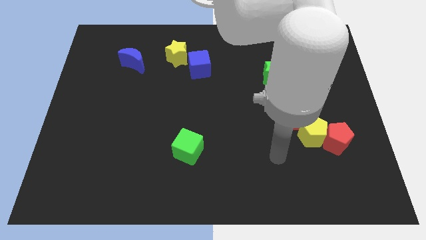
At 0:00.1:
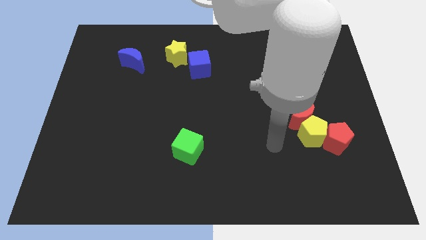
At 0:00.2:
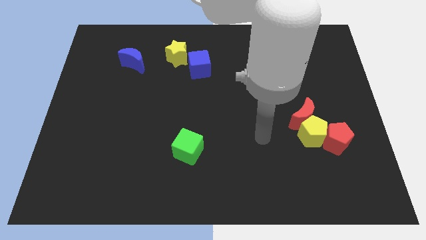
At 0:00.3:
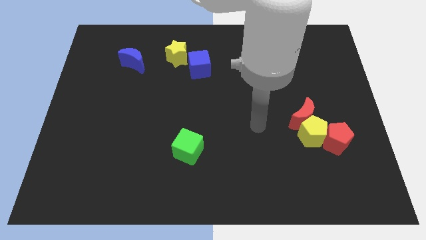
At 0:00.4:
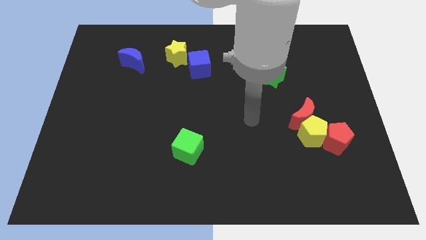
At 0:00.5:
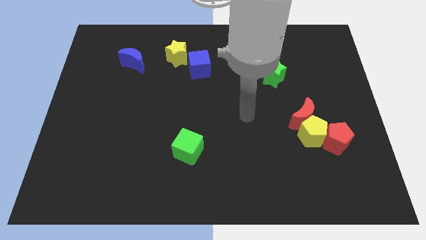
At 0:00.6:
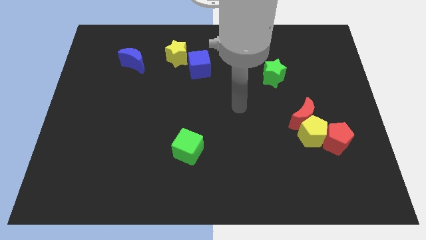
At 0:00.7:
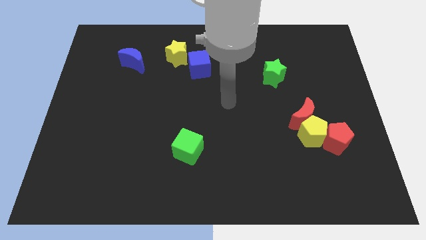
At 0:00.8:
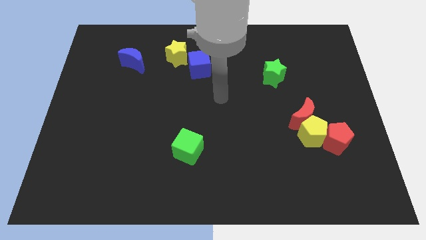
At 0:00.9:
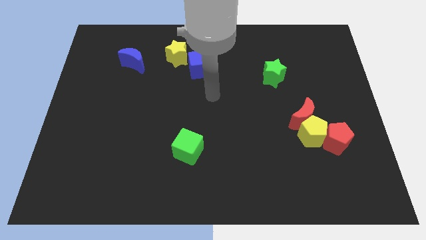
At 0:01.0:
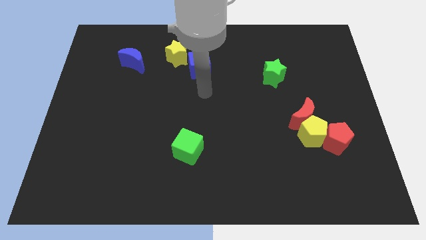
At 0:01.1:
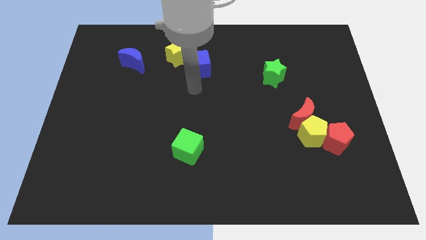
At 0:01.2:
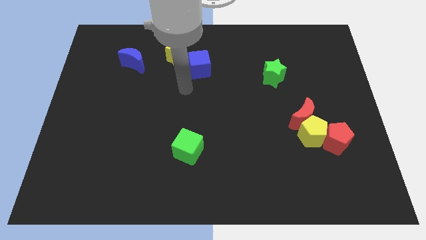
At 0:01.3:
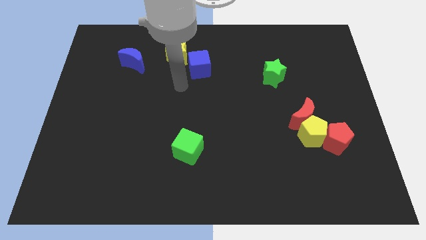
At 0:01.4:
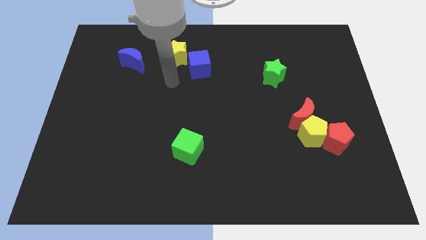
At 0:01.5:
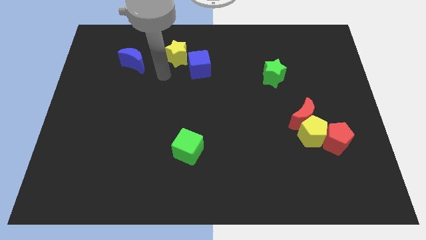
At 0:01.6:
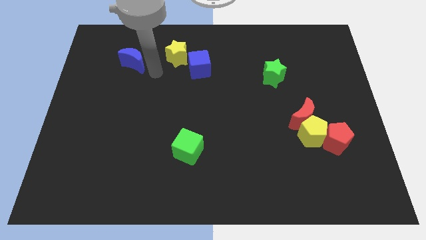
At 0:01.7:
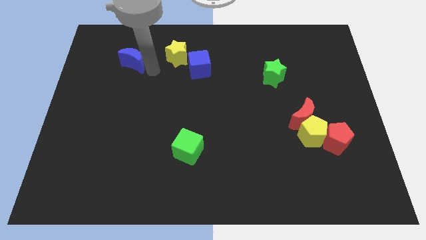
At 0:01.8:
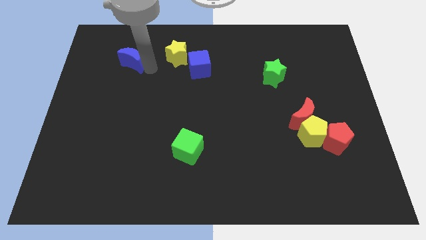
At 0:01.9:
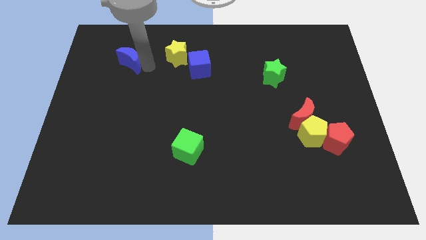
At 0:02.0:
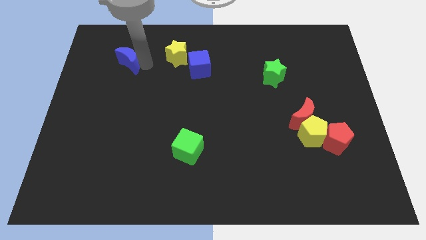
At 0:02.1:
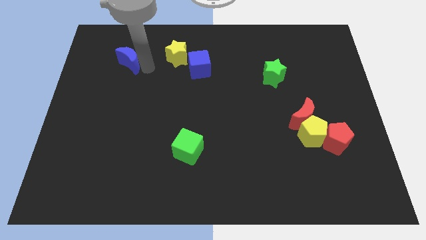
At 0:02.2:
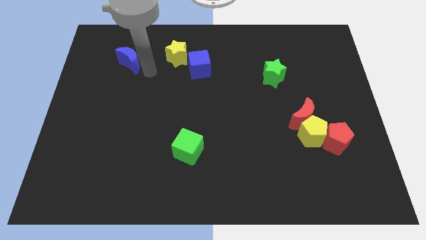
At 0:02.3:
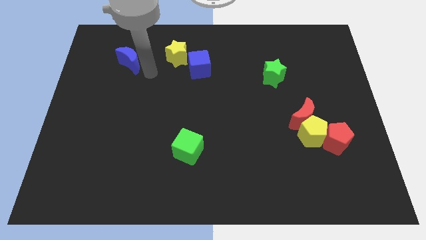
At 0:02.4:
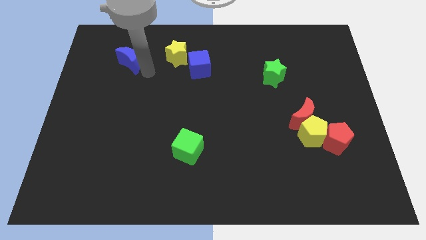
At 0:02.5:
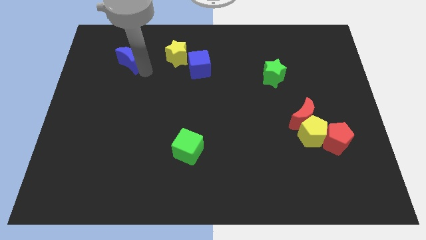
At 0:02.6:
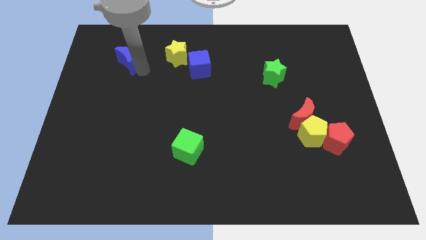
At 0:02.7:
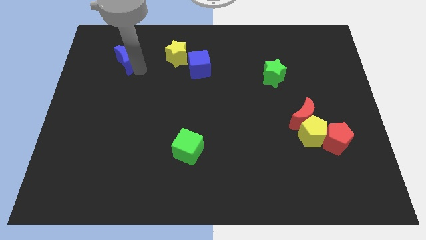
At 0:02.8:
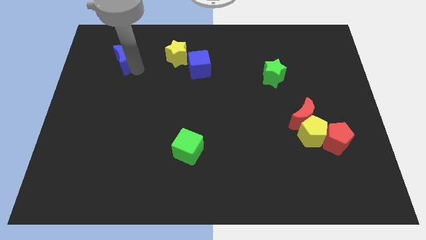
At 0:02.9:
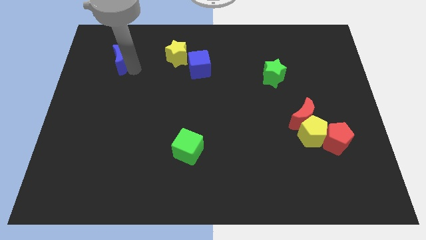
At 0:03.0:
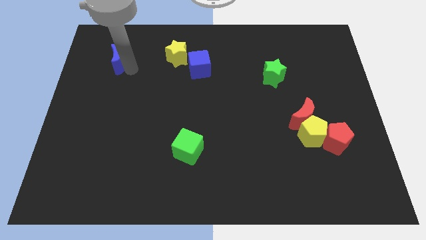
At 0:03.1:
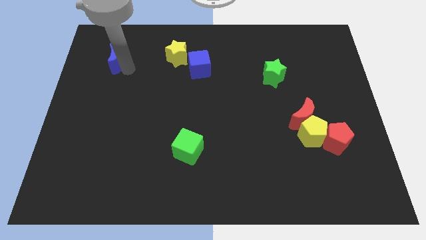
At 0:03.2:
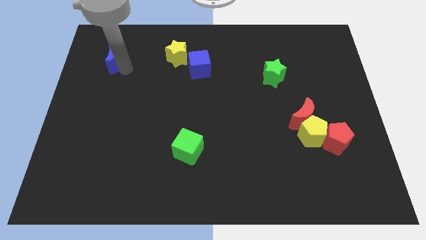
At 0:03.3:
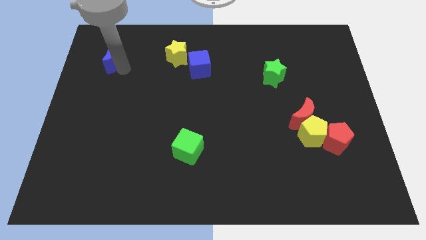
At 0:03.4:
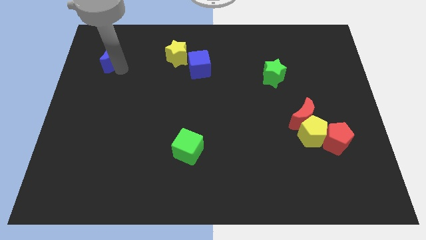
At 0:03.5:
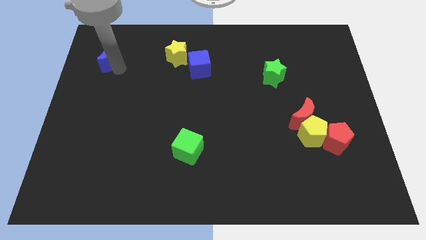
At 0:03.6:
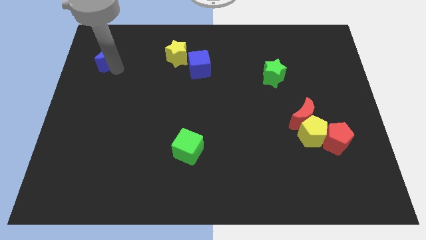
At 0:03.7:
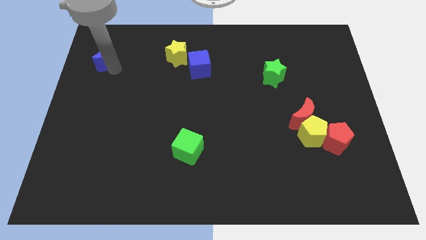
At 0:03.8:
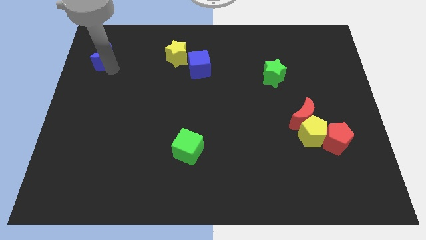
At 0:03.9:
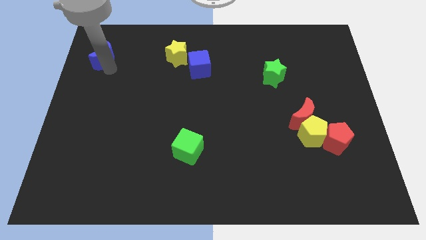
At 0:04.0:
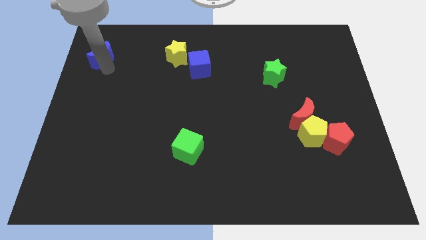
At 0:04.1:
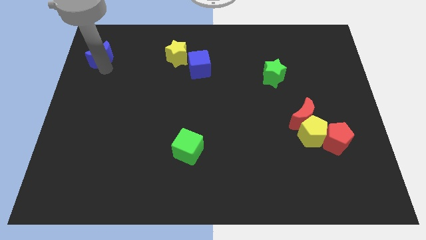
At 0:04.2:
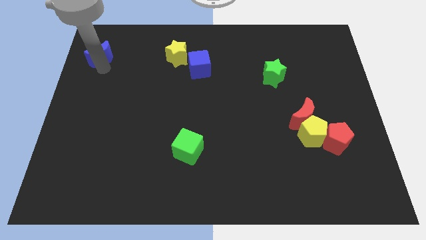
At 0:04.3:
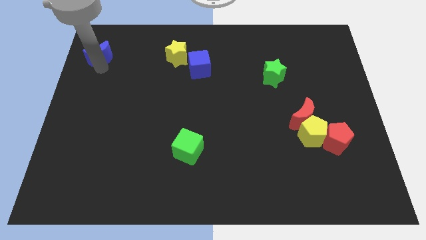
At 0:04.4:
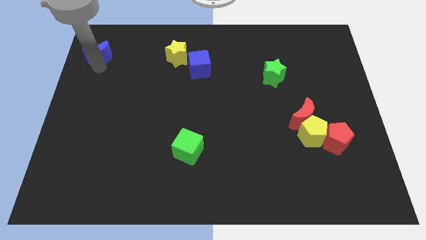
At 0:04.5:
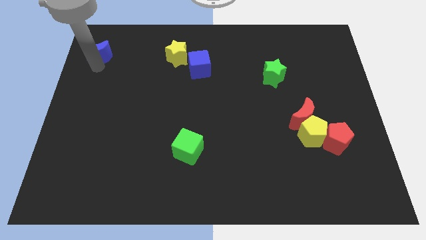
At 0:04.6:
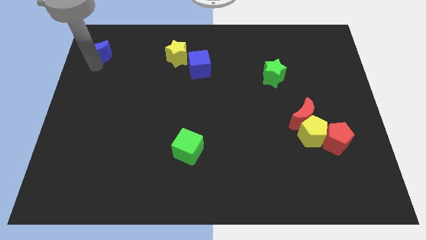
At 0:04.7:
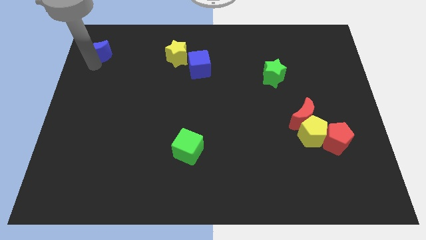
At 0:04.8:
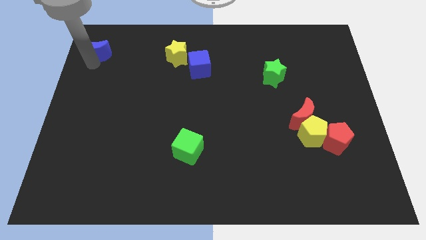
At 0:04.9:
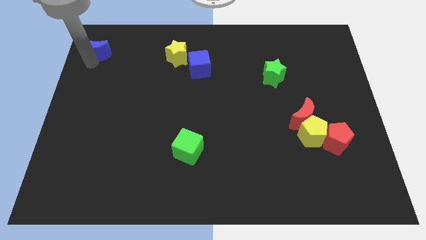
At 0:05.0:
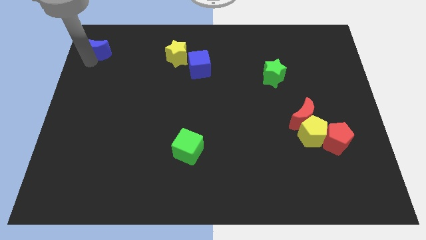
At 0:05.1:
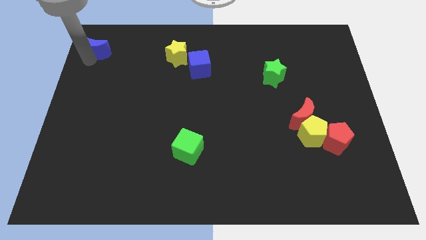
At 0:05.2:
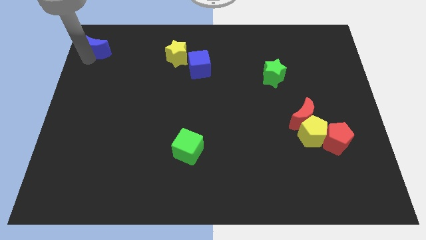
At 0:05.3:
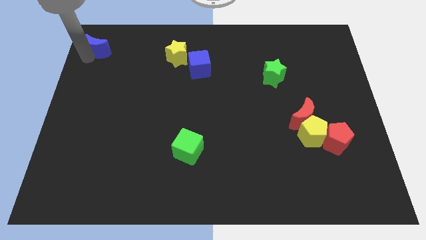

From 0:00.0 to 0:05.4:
move the blue moon to the top left

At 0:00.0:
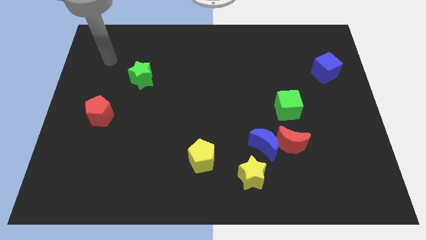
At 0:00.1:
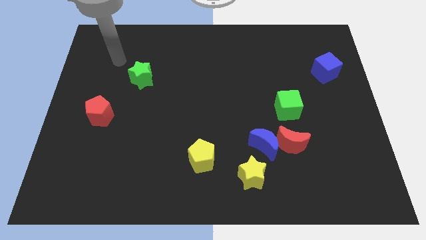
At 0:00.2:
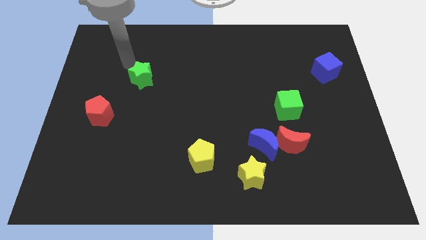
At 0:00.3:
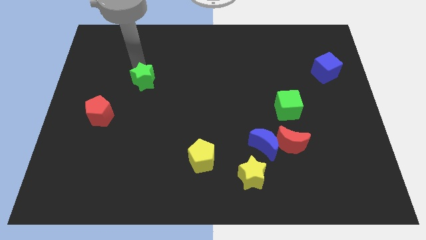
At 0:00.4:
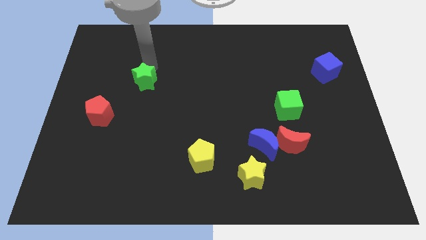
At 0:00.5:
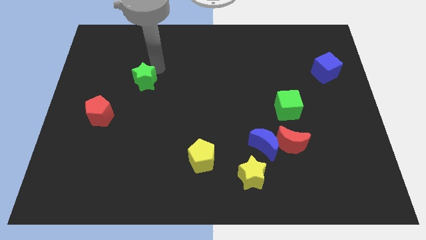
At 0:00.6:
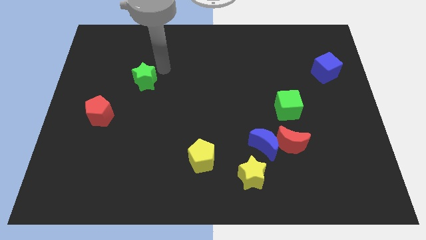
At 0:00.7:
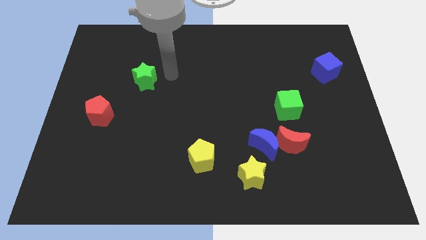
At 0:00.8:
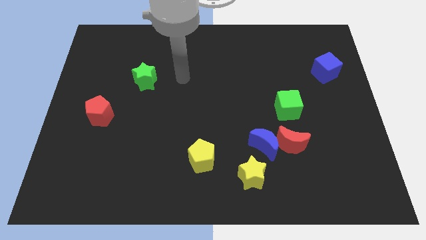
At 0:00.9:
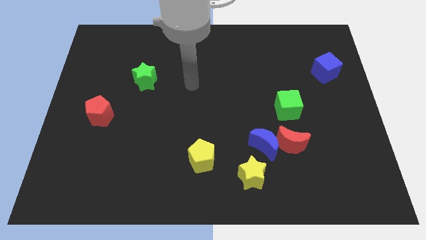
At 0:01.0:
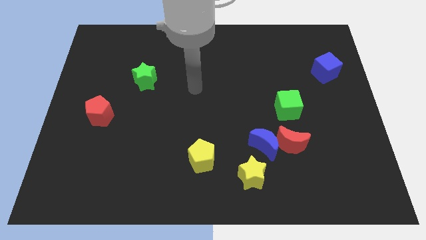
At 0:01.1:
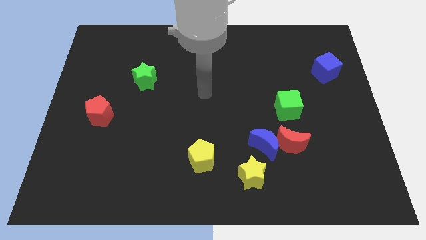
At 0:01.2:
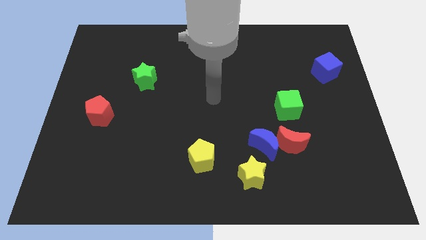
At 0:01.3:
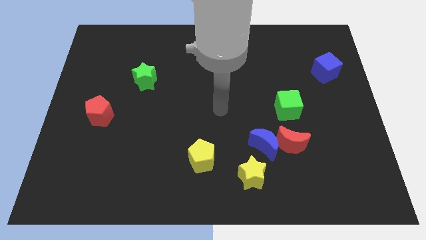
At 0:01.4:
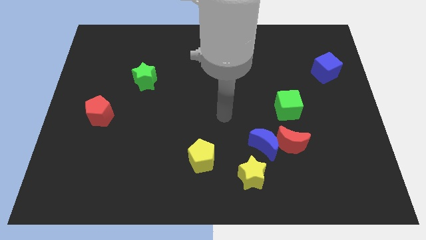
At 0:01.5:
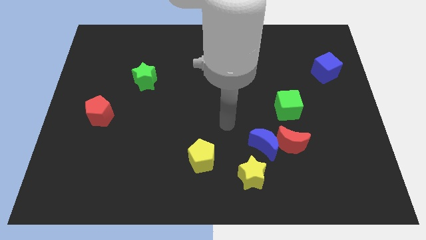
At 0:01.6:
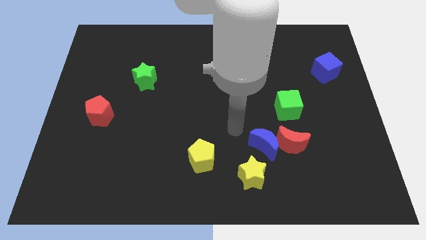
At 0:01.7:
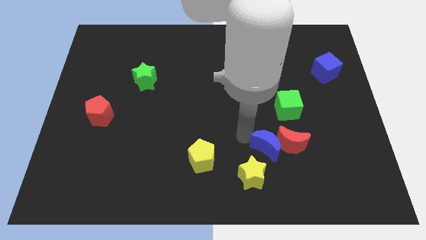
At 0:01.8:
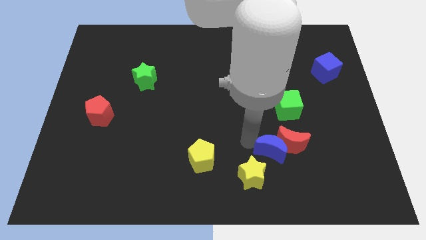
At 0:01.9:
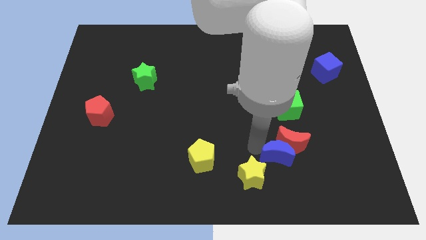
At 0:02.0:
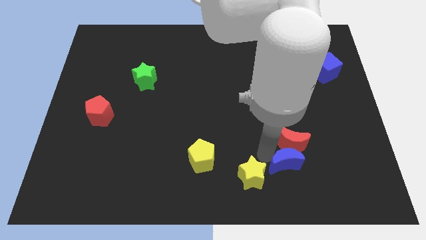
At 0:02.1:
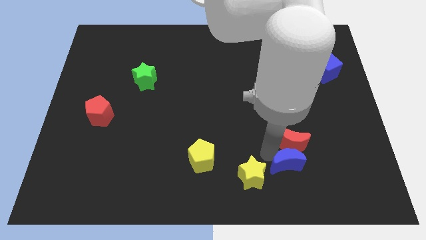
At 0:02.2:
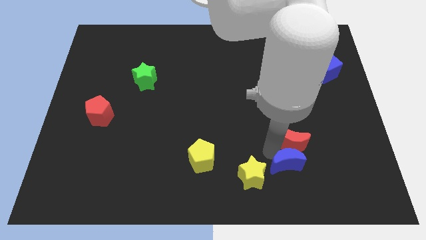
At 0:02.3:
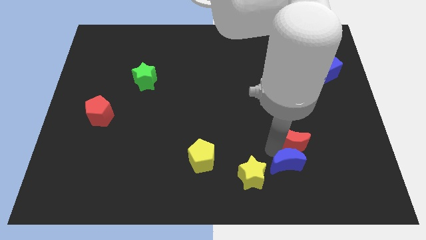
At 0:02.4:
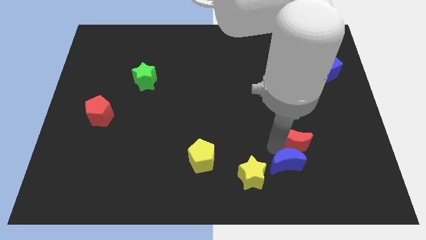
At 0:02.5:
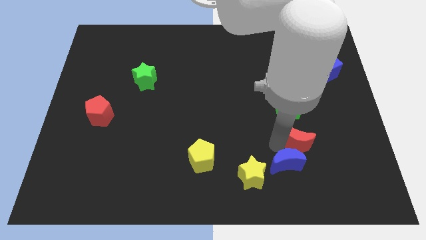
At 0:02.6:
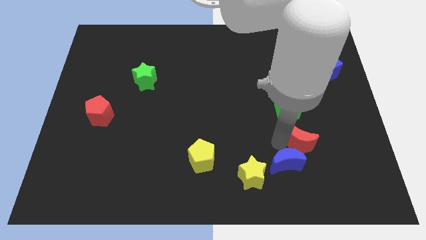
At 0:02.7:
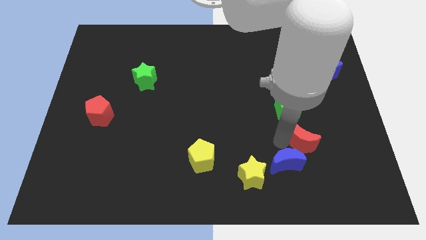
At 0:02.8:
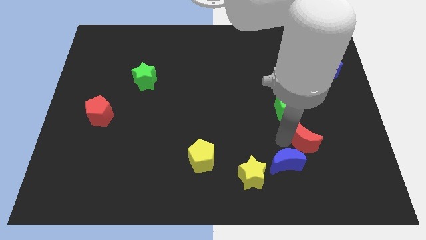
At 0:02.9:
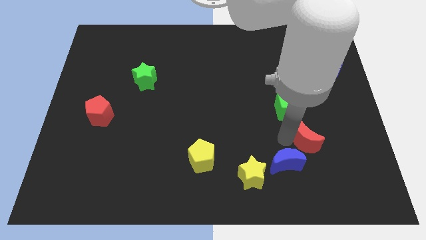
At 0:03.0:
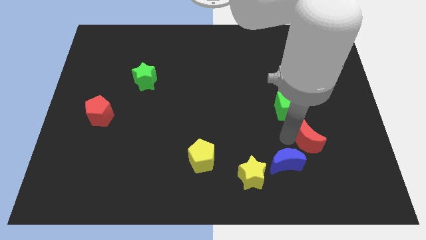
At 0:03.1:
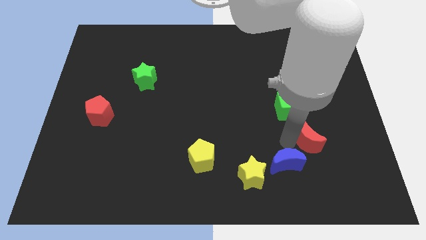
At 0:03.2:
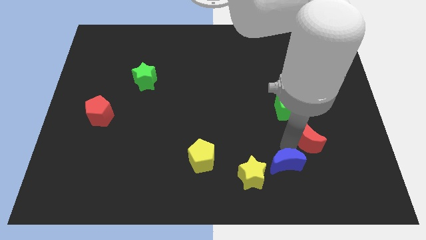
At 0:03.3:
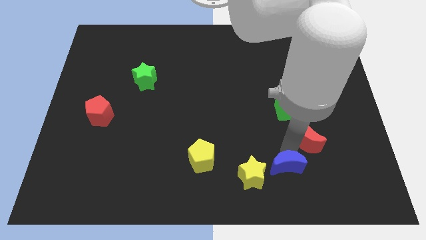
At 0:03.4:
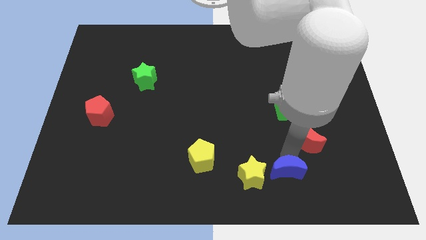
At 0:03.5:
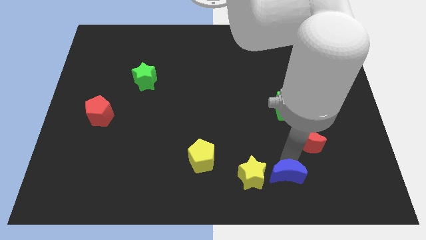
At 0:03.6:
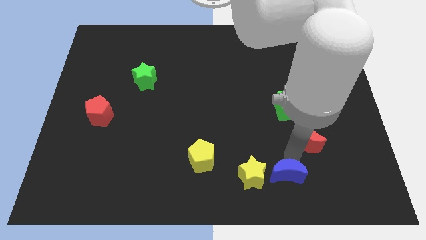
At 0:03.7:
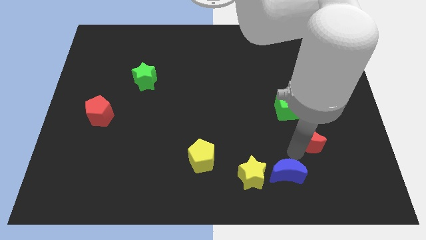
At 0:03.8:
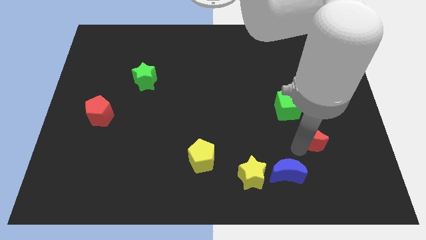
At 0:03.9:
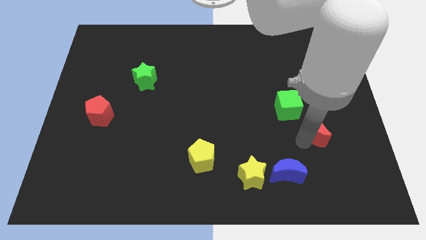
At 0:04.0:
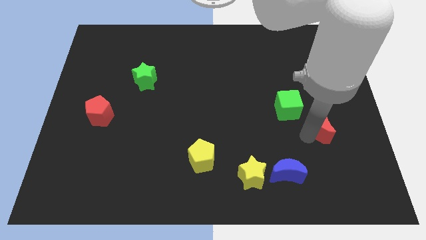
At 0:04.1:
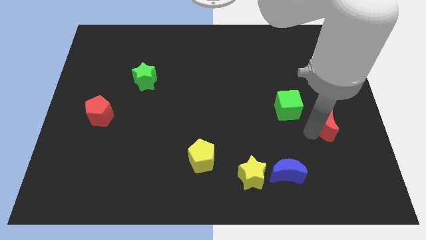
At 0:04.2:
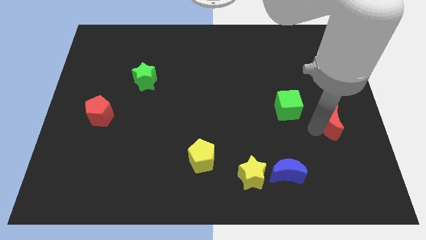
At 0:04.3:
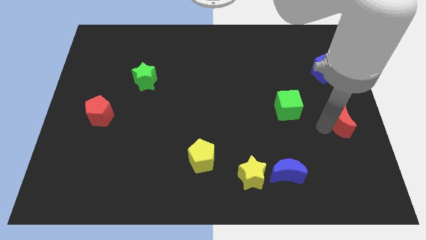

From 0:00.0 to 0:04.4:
slide the red moon to the center right
